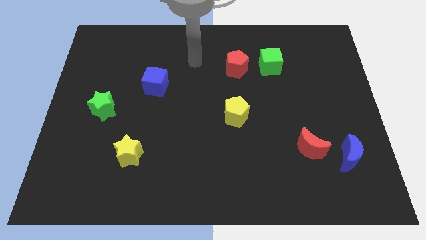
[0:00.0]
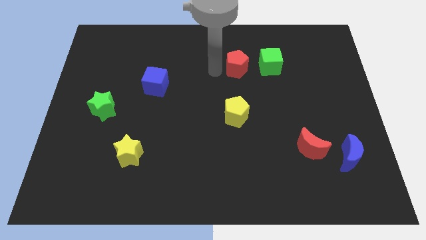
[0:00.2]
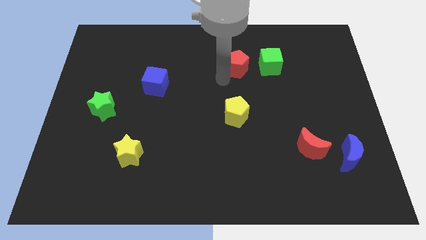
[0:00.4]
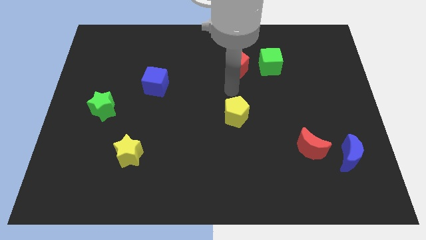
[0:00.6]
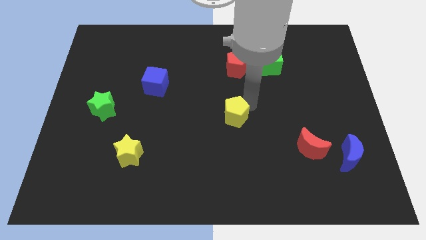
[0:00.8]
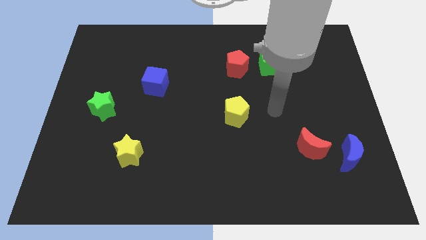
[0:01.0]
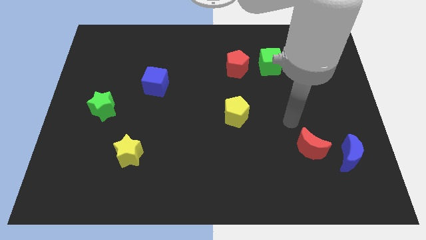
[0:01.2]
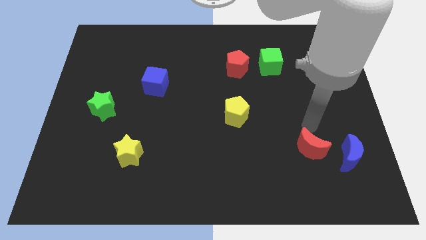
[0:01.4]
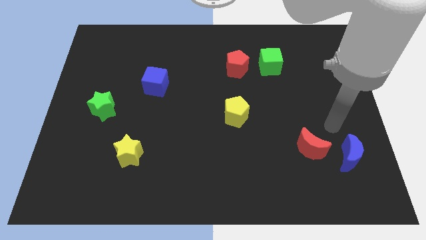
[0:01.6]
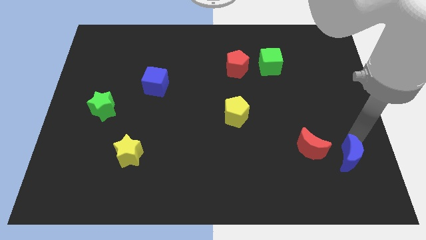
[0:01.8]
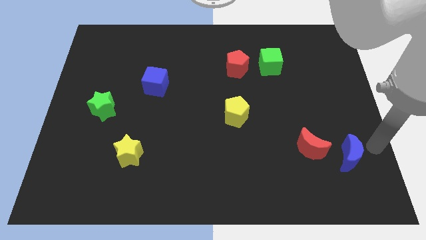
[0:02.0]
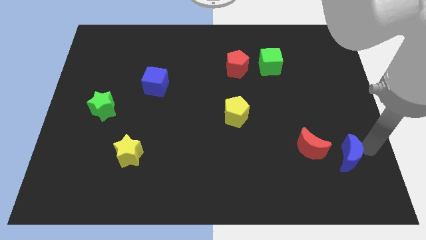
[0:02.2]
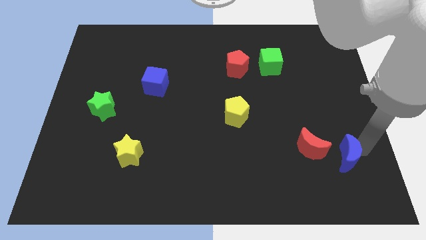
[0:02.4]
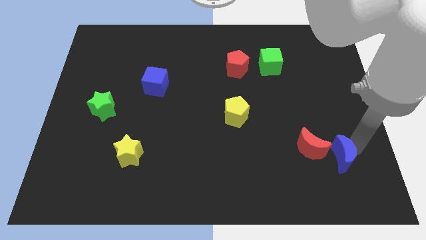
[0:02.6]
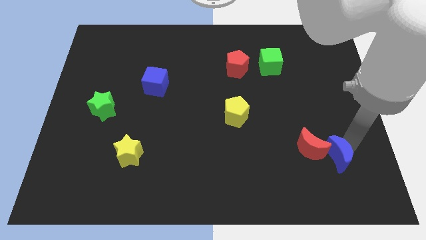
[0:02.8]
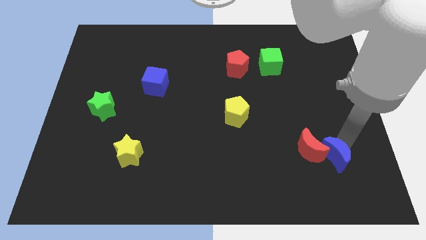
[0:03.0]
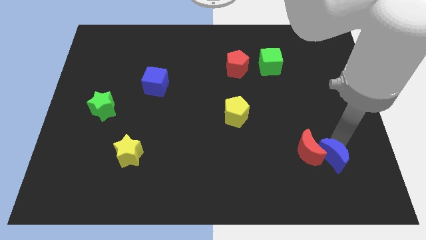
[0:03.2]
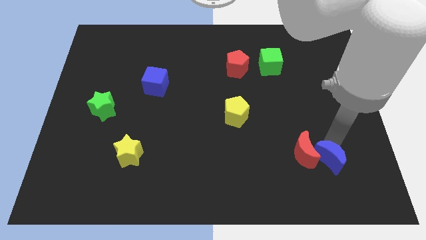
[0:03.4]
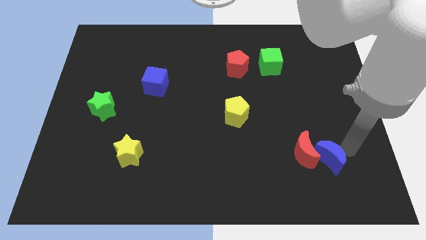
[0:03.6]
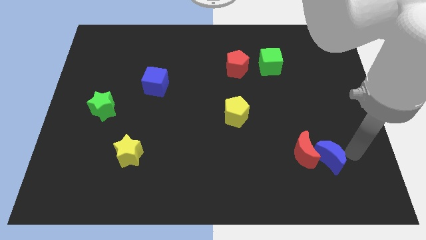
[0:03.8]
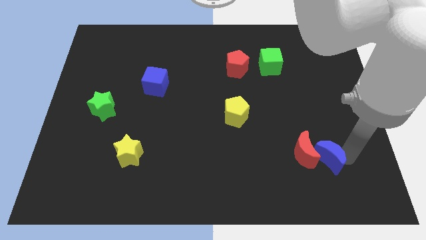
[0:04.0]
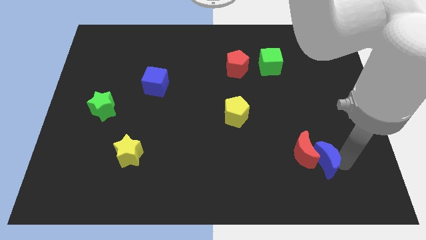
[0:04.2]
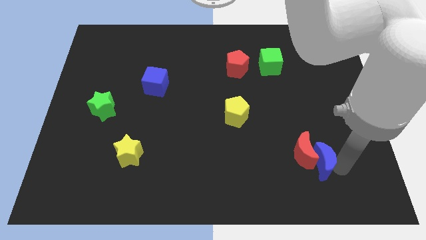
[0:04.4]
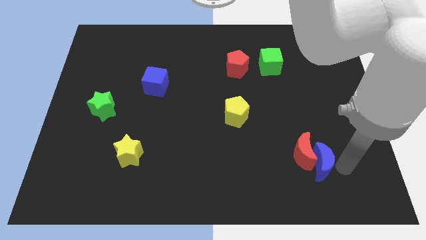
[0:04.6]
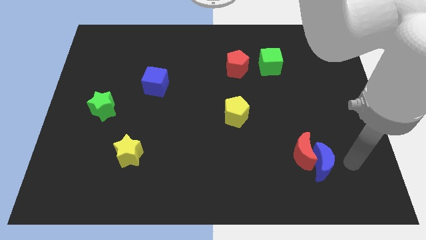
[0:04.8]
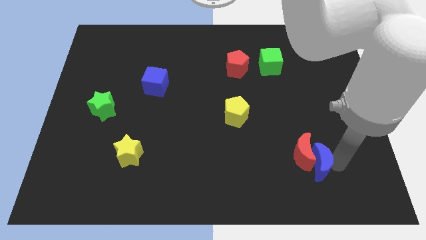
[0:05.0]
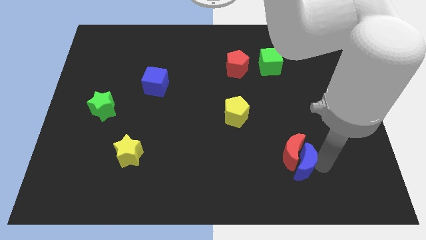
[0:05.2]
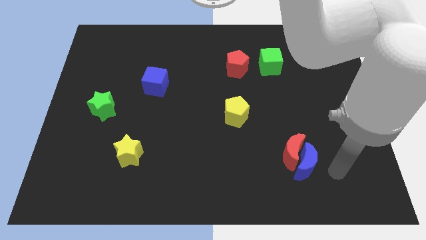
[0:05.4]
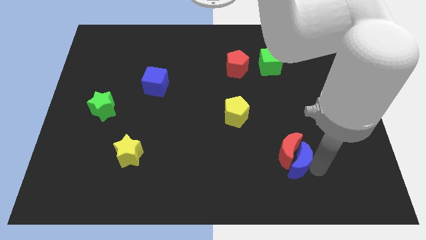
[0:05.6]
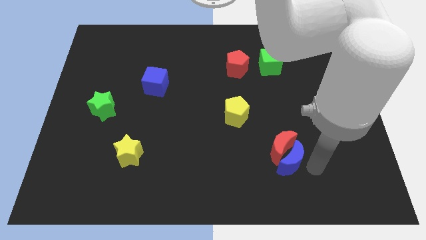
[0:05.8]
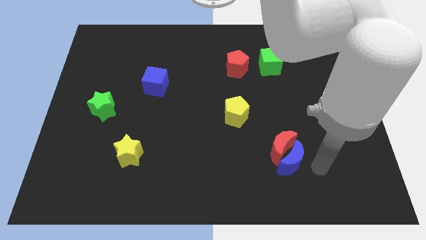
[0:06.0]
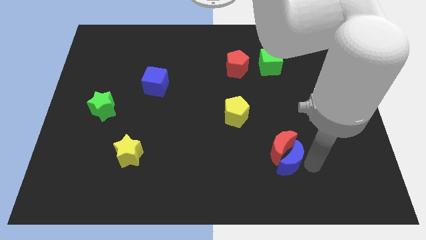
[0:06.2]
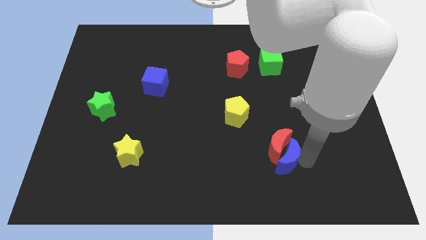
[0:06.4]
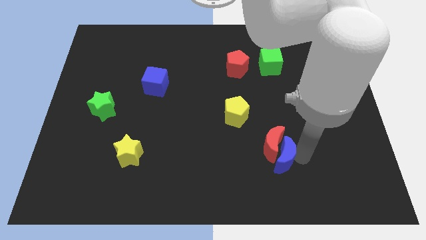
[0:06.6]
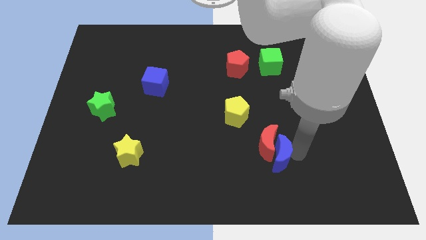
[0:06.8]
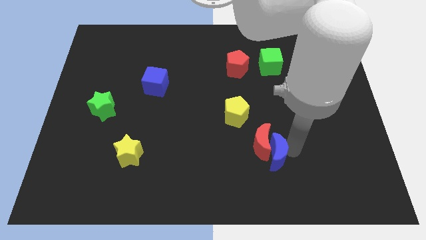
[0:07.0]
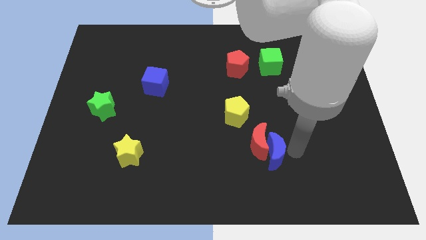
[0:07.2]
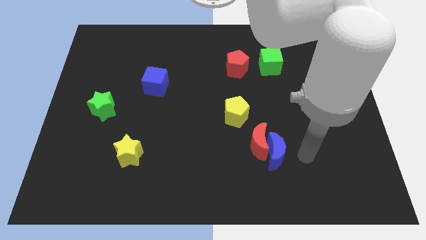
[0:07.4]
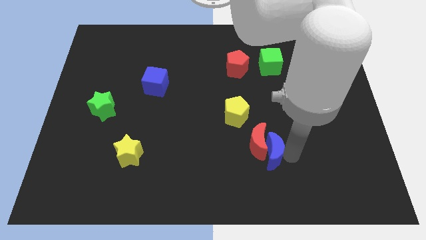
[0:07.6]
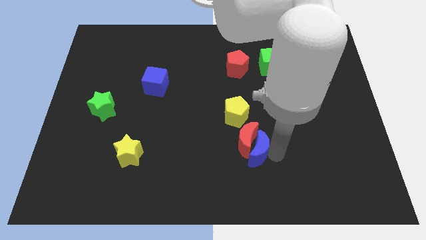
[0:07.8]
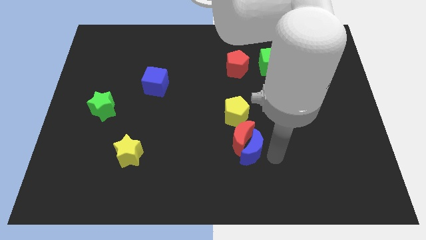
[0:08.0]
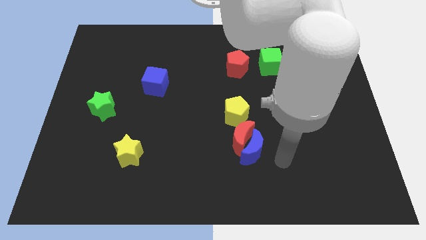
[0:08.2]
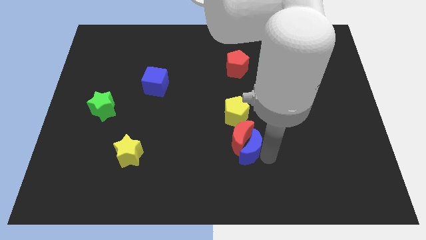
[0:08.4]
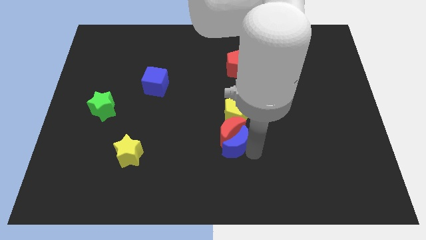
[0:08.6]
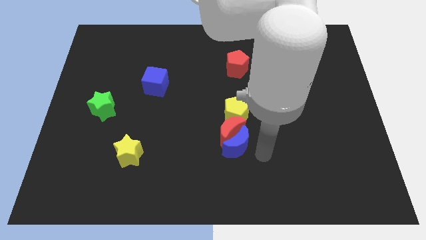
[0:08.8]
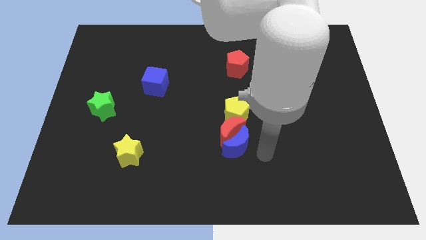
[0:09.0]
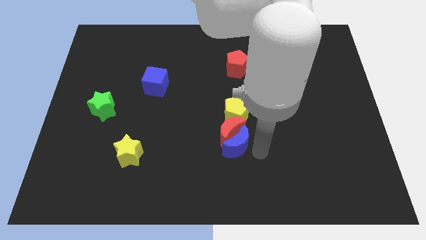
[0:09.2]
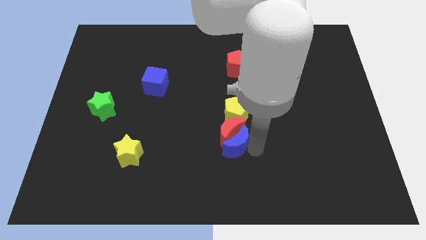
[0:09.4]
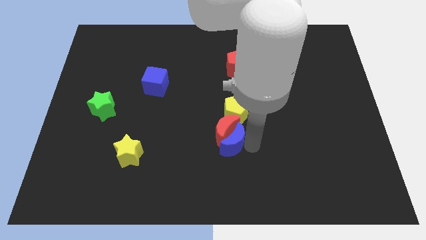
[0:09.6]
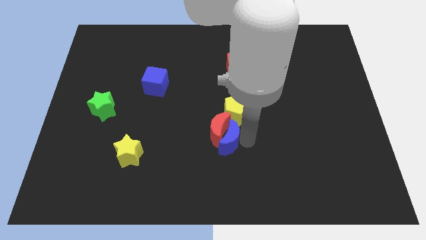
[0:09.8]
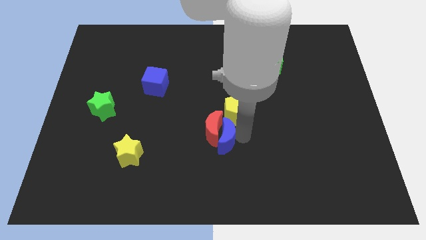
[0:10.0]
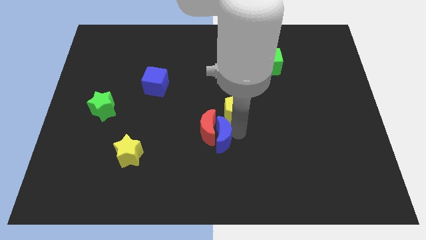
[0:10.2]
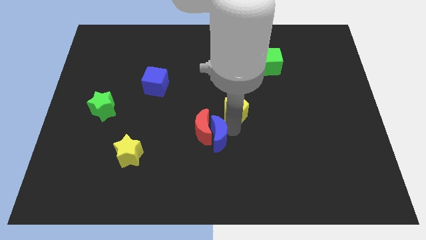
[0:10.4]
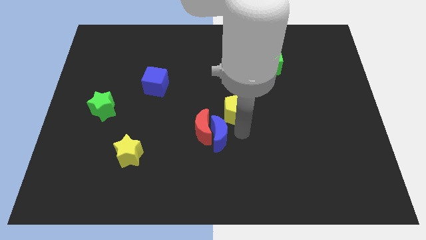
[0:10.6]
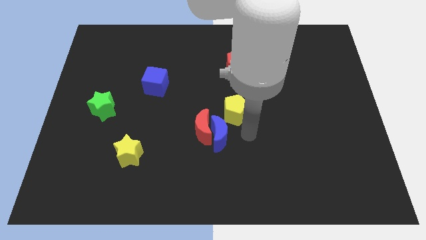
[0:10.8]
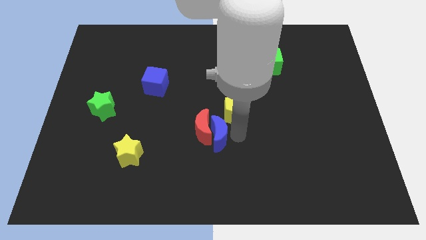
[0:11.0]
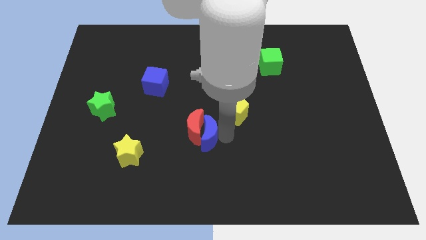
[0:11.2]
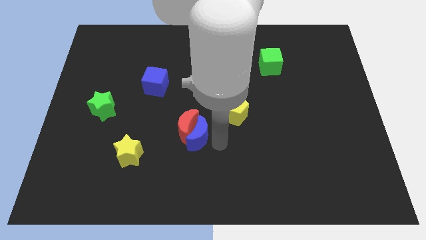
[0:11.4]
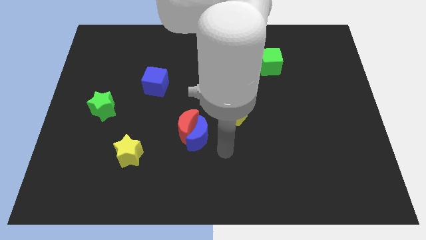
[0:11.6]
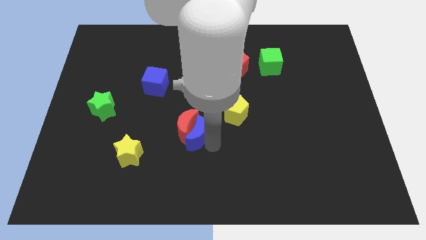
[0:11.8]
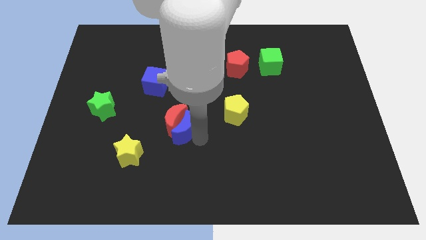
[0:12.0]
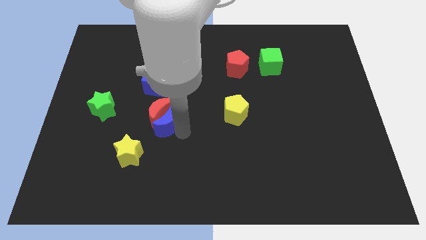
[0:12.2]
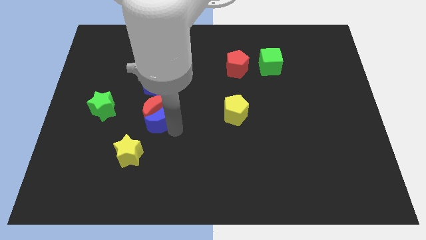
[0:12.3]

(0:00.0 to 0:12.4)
push the blue moon to the right side of the green star

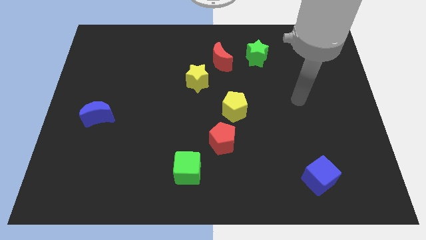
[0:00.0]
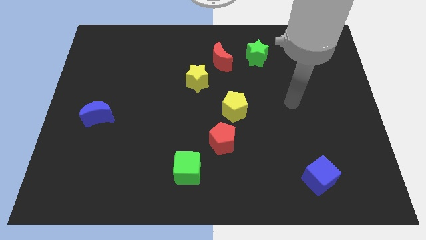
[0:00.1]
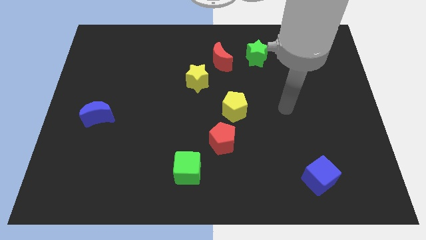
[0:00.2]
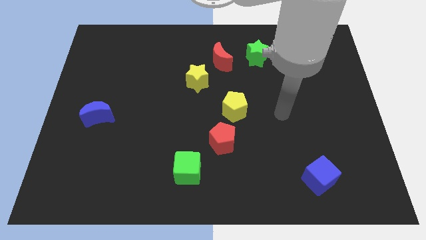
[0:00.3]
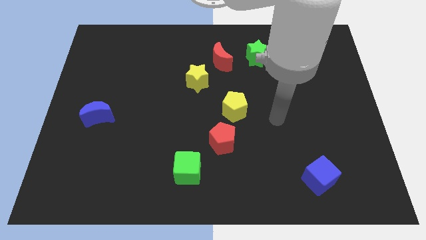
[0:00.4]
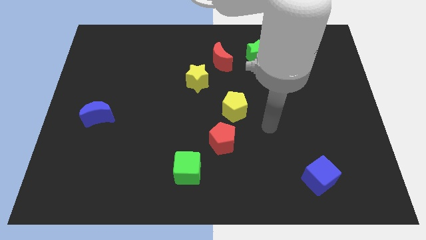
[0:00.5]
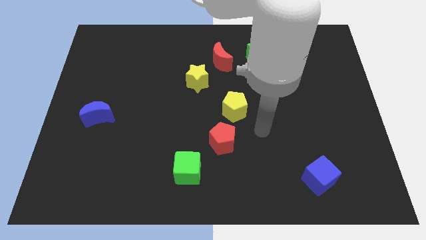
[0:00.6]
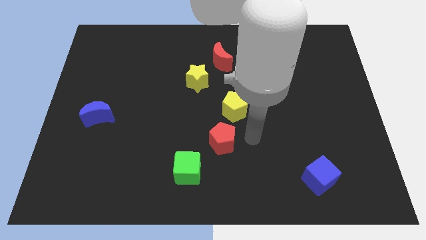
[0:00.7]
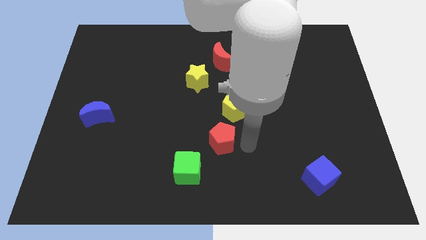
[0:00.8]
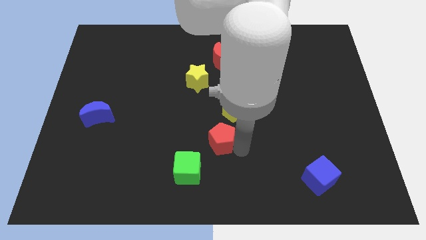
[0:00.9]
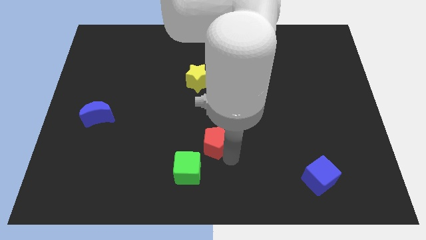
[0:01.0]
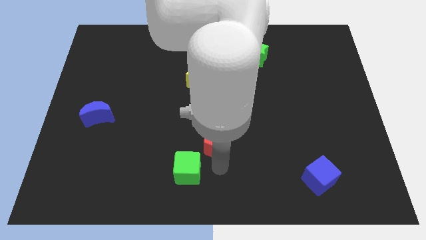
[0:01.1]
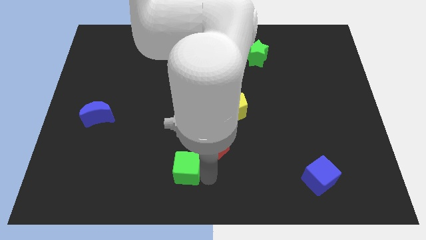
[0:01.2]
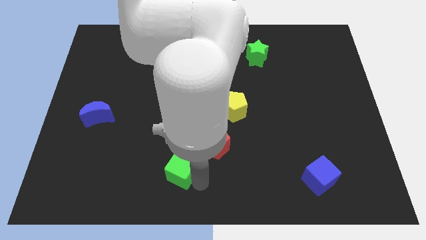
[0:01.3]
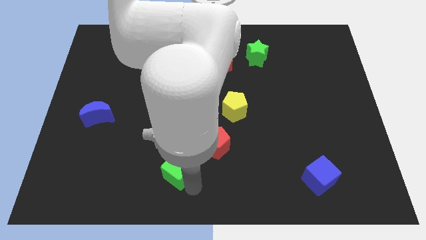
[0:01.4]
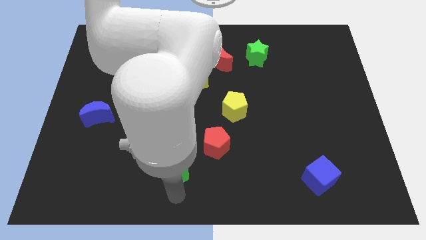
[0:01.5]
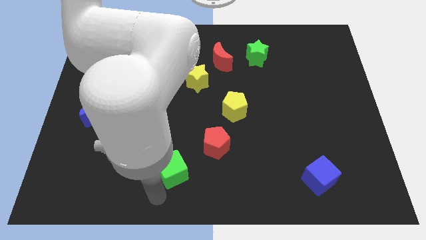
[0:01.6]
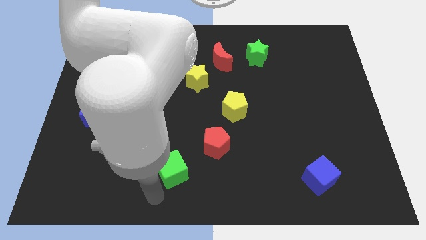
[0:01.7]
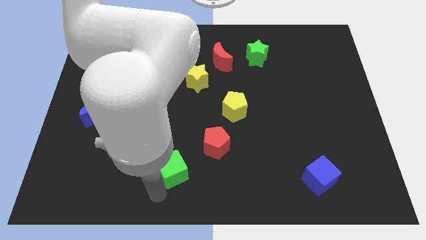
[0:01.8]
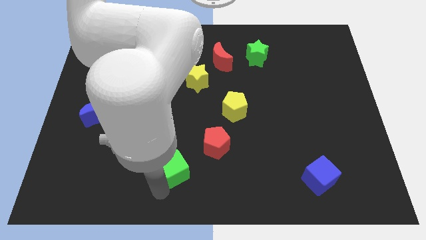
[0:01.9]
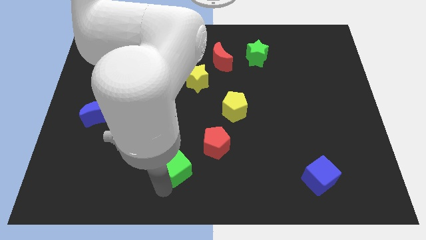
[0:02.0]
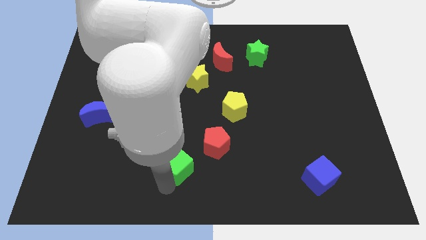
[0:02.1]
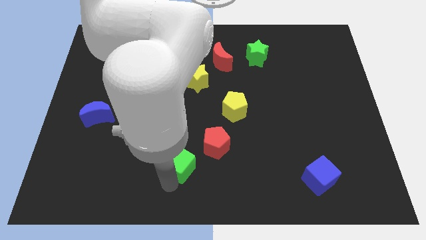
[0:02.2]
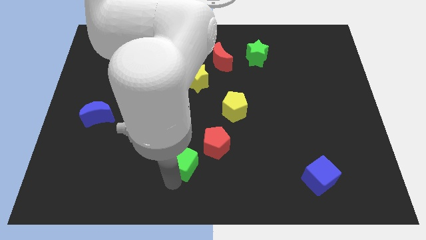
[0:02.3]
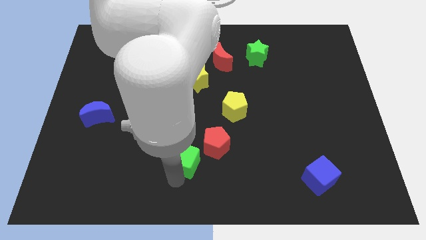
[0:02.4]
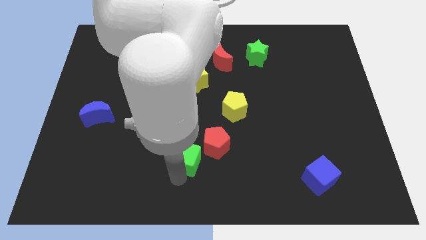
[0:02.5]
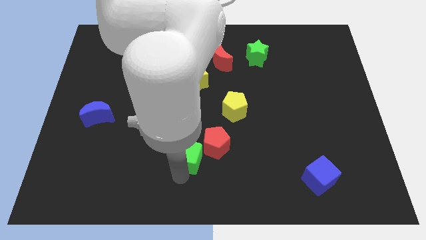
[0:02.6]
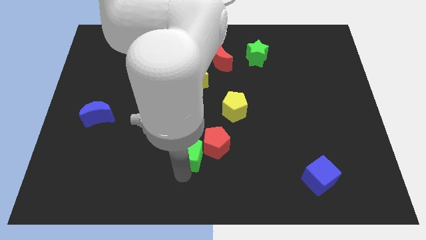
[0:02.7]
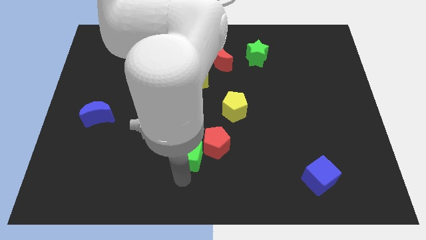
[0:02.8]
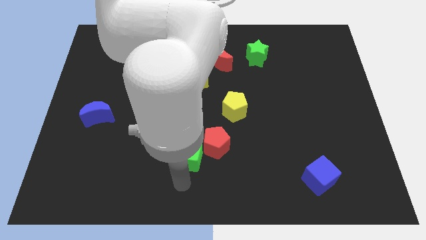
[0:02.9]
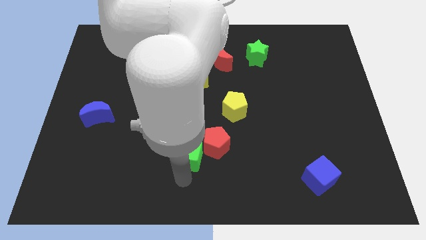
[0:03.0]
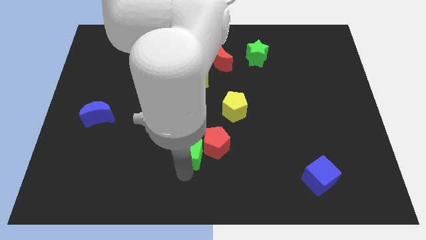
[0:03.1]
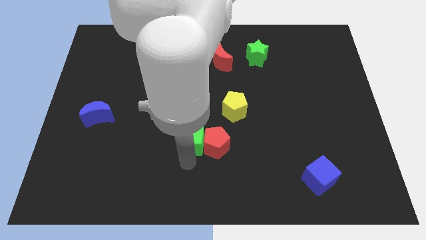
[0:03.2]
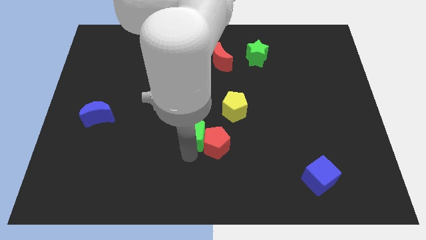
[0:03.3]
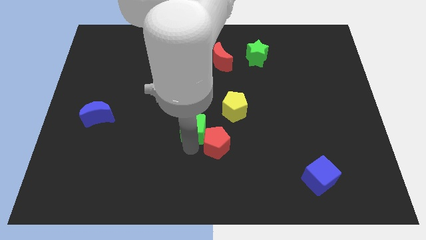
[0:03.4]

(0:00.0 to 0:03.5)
push the green cube to the bottom side of the yellow star
